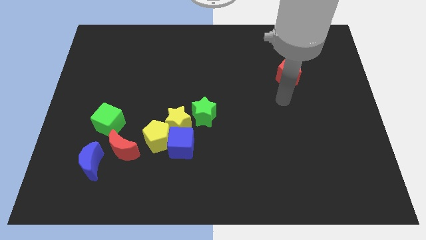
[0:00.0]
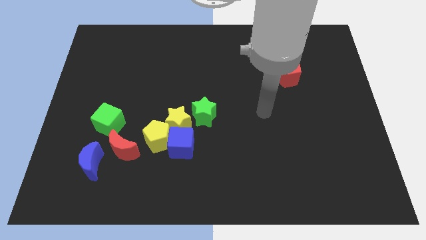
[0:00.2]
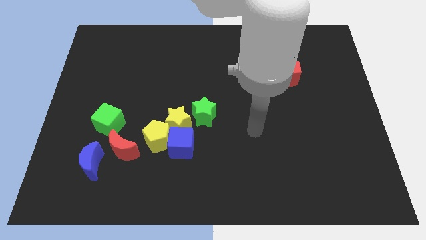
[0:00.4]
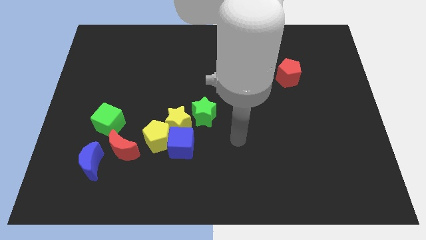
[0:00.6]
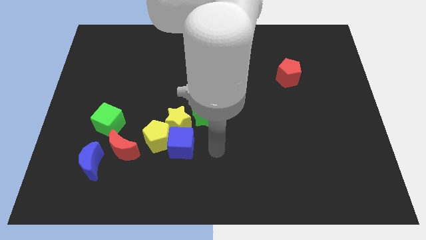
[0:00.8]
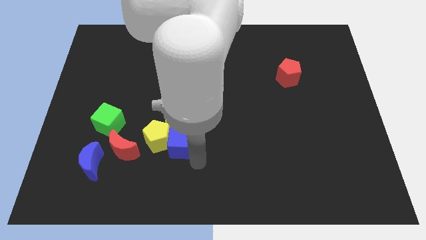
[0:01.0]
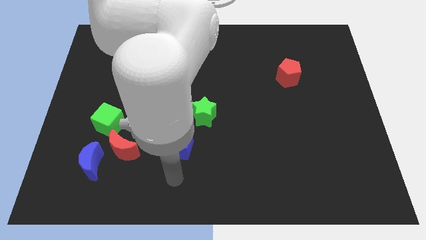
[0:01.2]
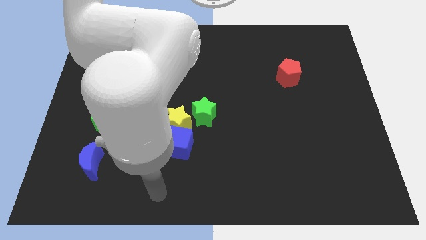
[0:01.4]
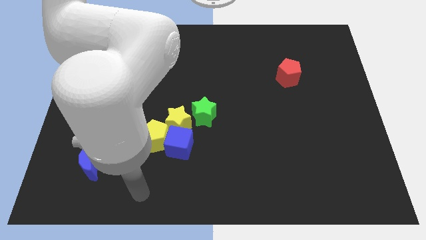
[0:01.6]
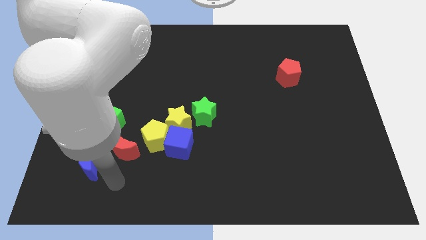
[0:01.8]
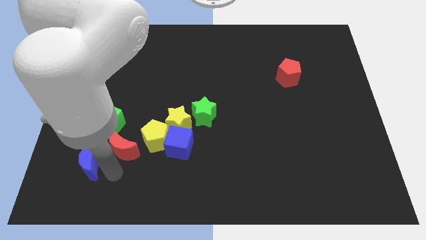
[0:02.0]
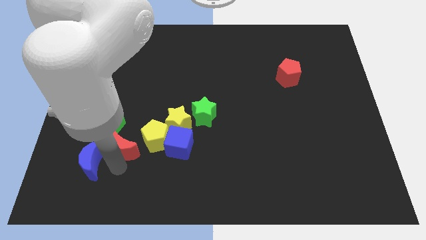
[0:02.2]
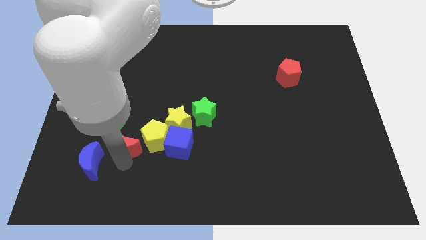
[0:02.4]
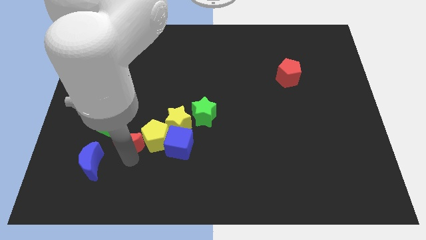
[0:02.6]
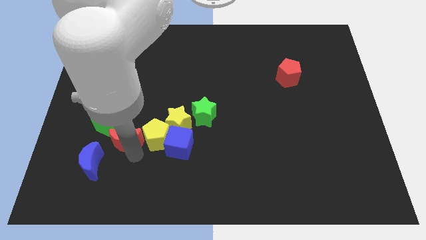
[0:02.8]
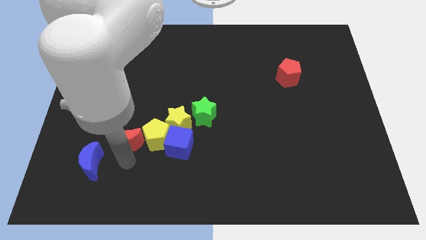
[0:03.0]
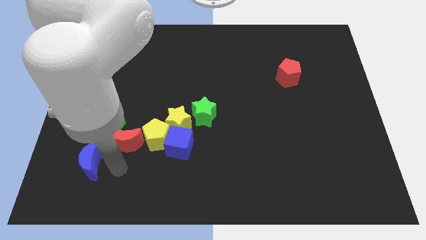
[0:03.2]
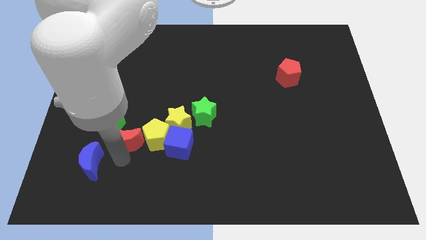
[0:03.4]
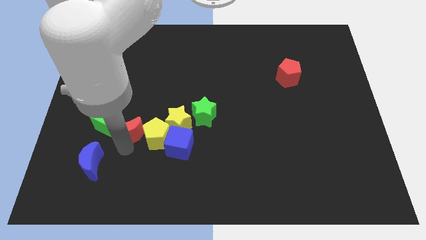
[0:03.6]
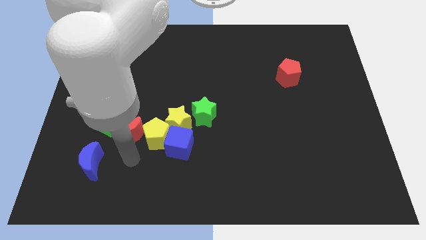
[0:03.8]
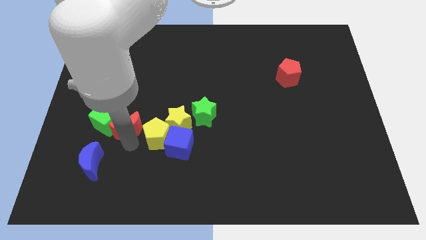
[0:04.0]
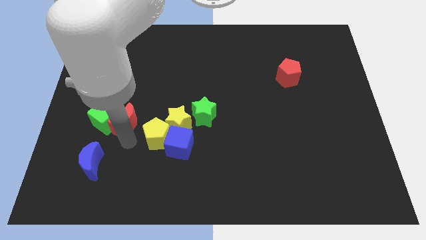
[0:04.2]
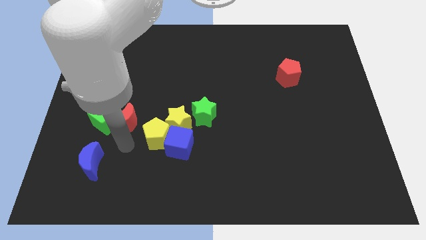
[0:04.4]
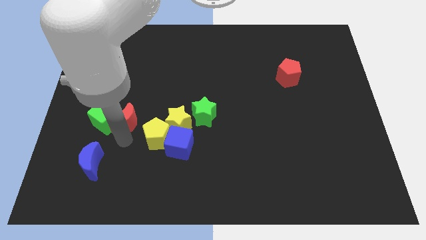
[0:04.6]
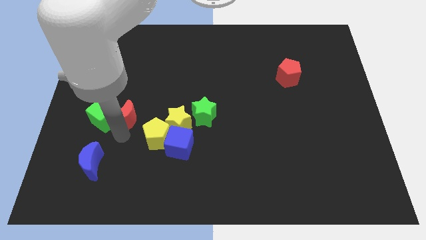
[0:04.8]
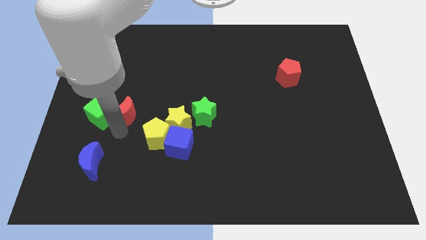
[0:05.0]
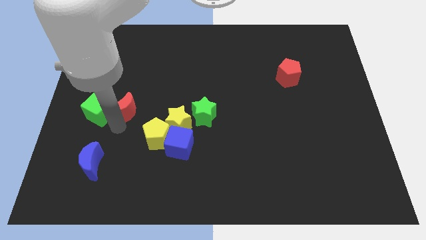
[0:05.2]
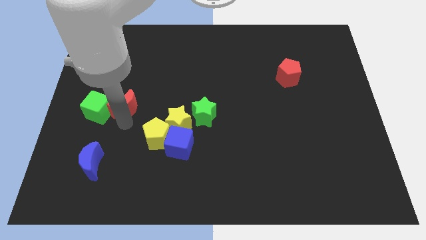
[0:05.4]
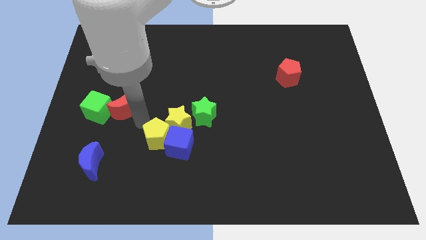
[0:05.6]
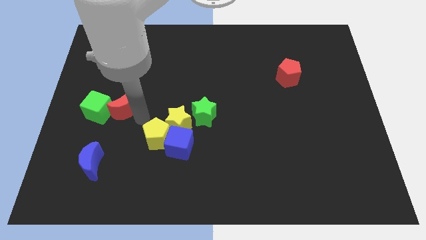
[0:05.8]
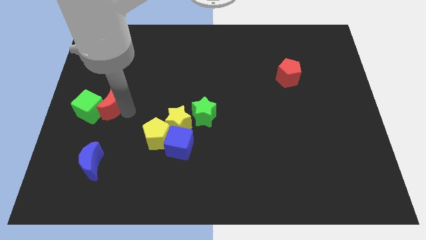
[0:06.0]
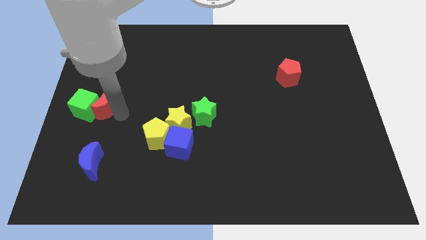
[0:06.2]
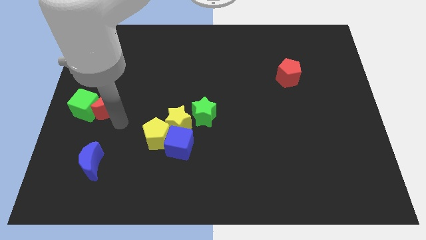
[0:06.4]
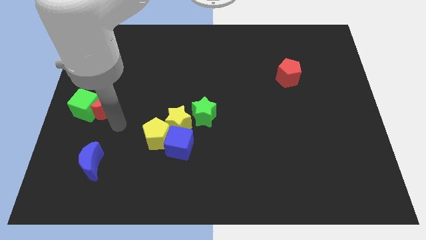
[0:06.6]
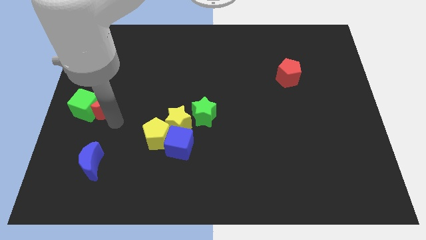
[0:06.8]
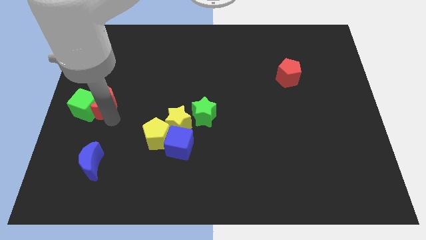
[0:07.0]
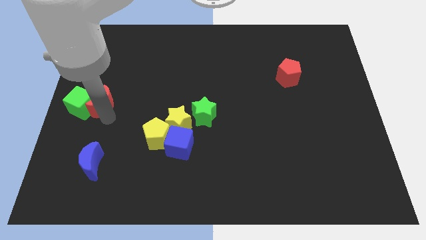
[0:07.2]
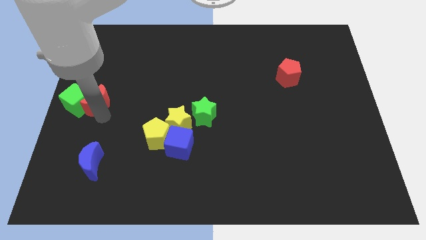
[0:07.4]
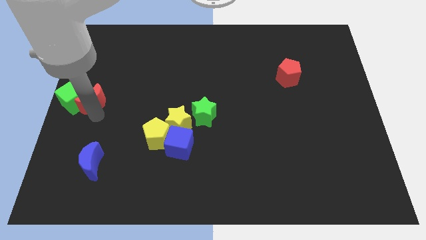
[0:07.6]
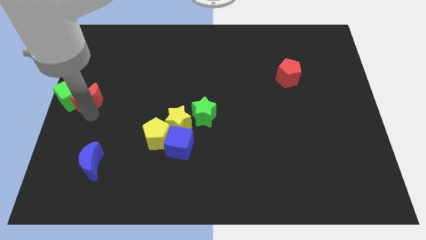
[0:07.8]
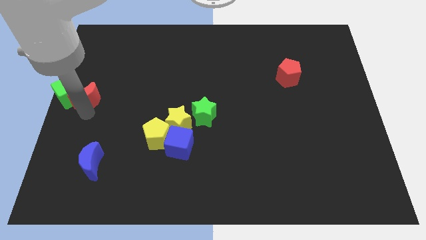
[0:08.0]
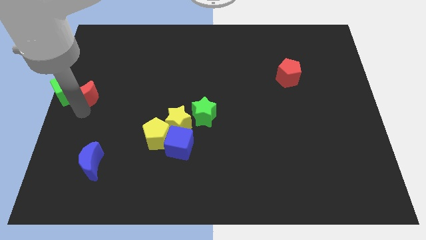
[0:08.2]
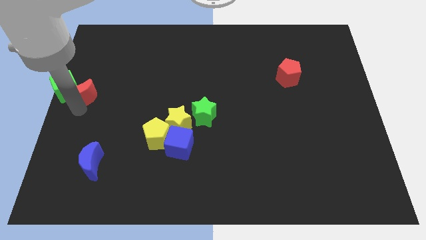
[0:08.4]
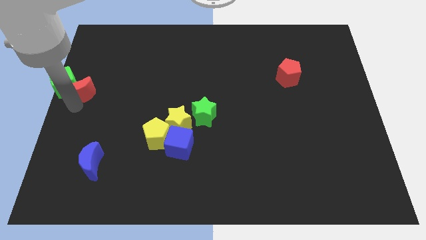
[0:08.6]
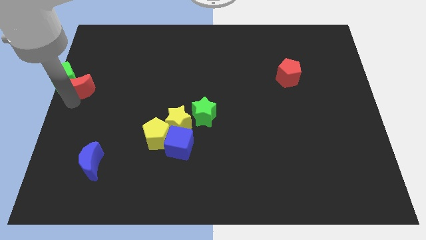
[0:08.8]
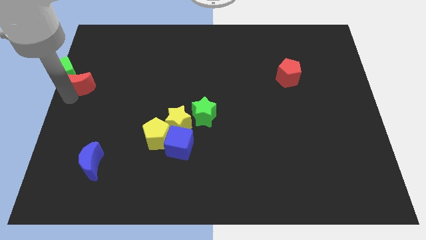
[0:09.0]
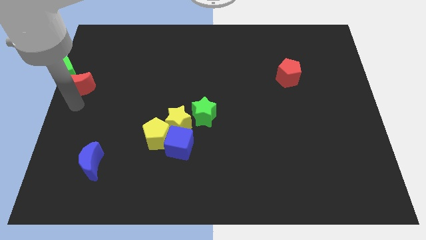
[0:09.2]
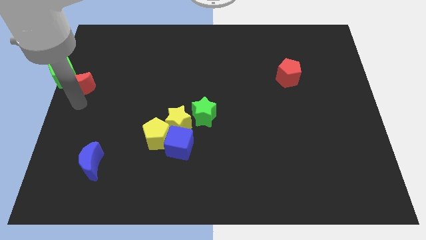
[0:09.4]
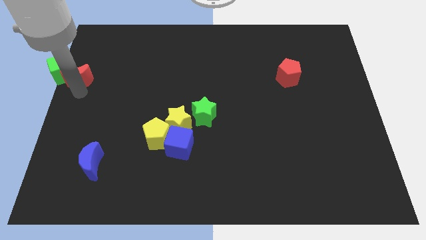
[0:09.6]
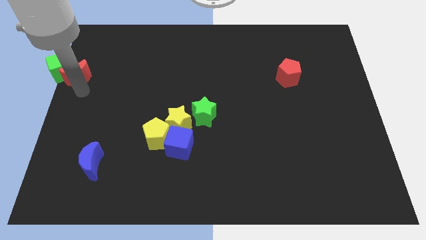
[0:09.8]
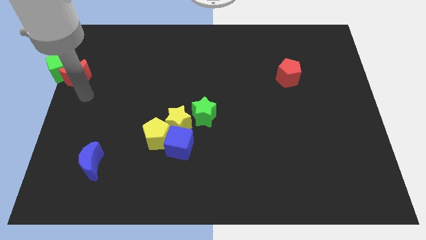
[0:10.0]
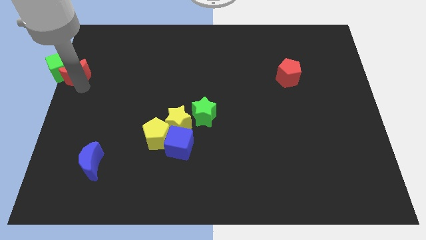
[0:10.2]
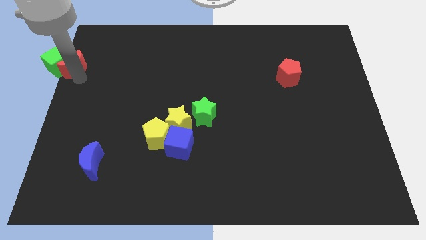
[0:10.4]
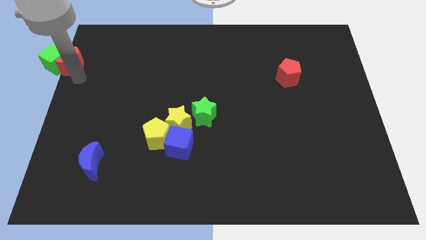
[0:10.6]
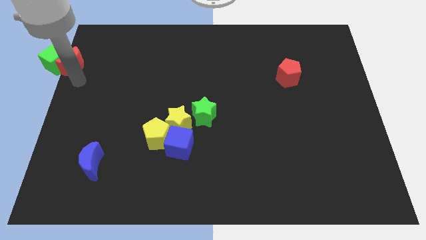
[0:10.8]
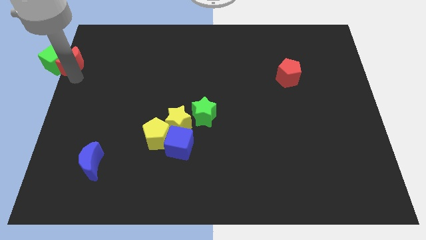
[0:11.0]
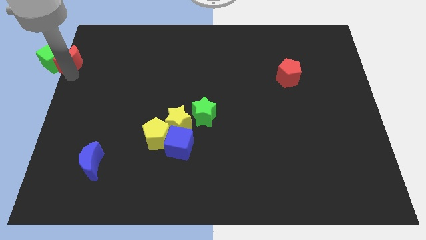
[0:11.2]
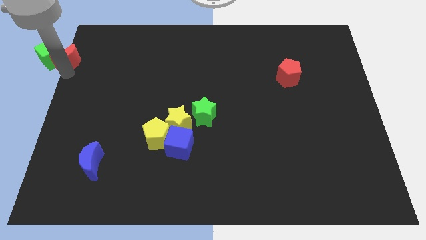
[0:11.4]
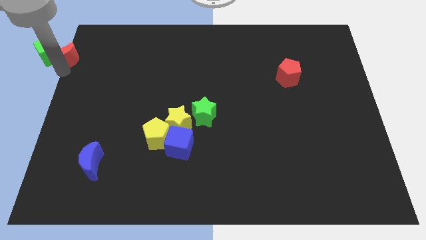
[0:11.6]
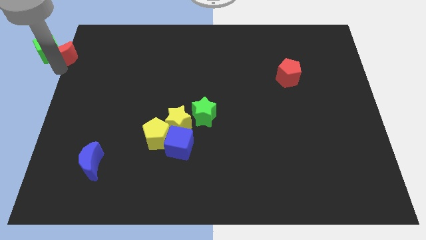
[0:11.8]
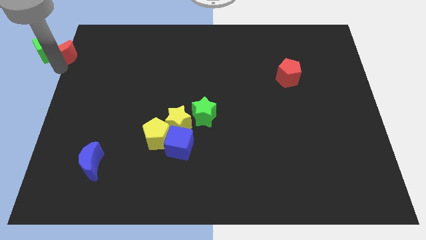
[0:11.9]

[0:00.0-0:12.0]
put the red moon to the top left corner

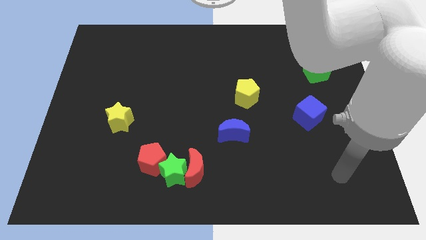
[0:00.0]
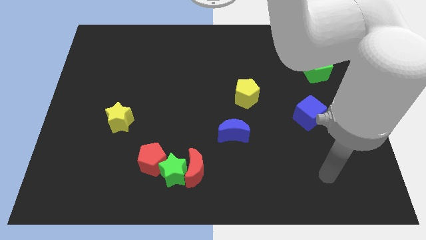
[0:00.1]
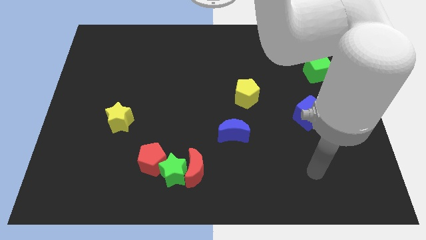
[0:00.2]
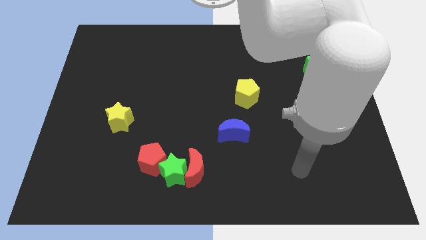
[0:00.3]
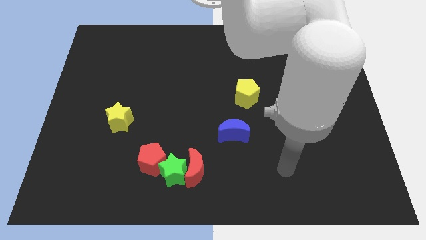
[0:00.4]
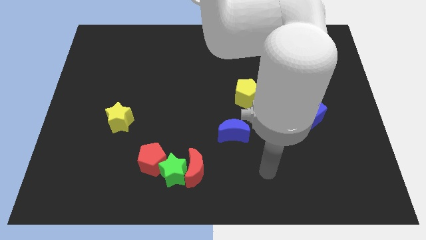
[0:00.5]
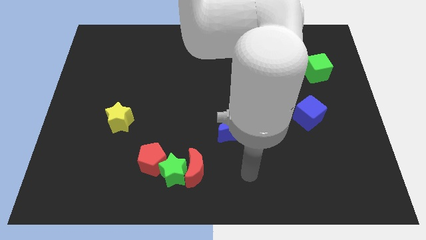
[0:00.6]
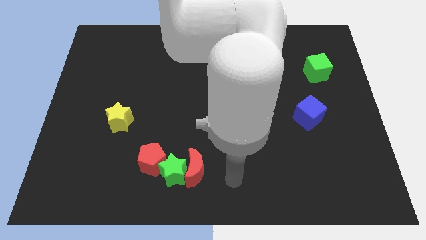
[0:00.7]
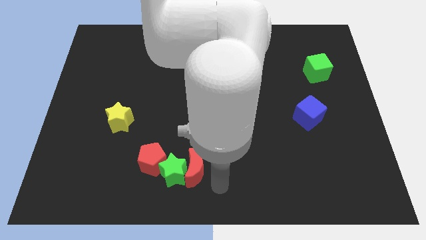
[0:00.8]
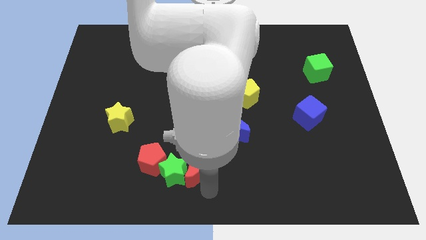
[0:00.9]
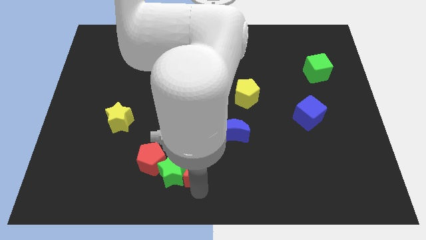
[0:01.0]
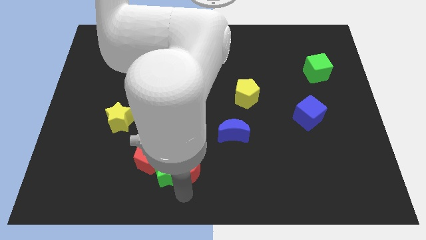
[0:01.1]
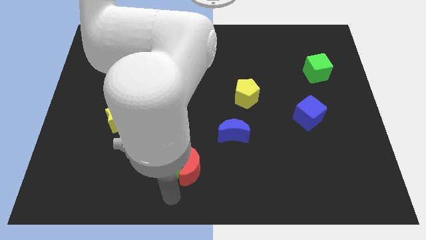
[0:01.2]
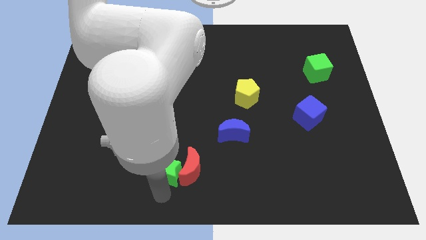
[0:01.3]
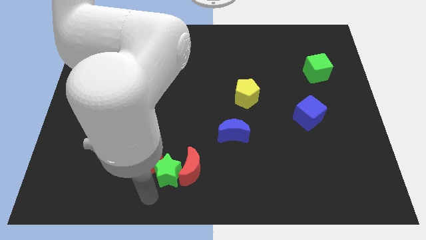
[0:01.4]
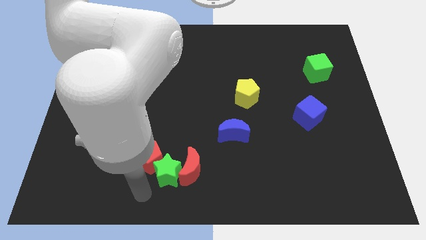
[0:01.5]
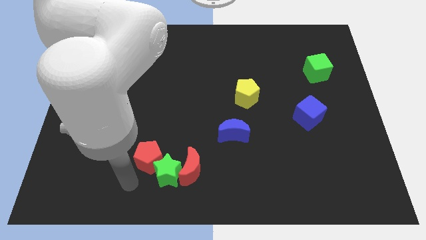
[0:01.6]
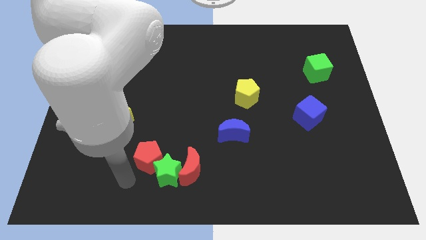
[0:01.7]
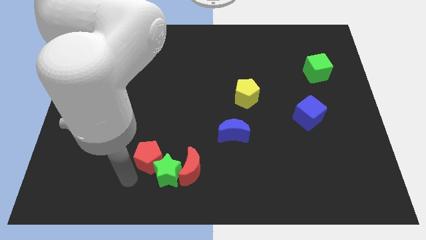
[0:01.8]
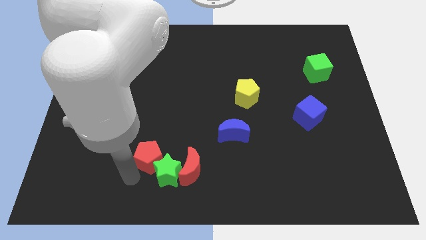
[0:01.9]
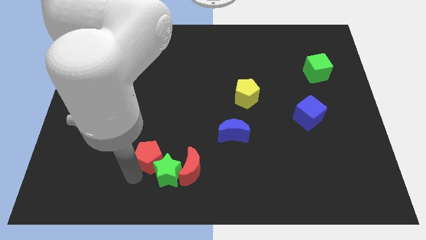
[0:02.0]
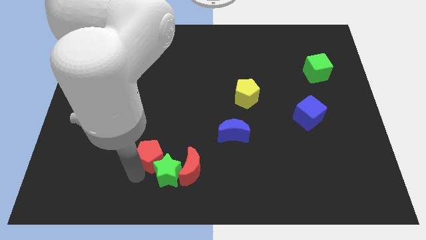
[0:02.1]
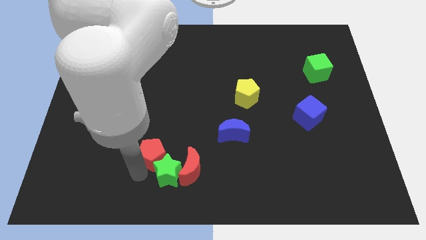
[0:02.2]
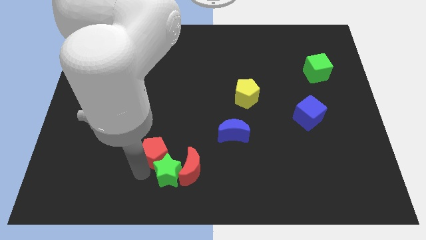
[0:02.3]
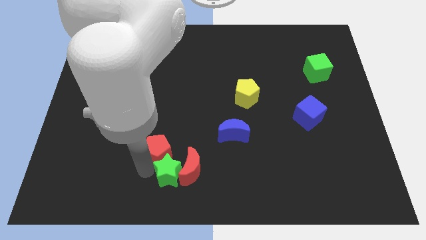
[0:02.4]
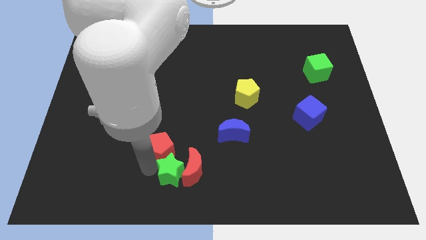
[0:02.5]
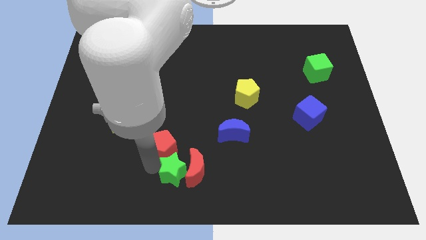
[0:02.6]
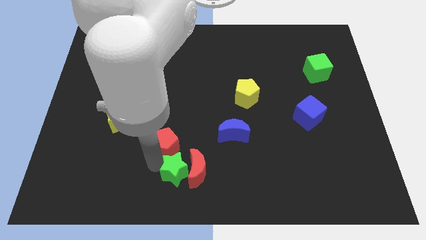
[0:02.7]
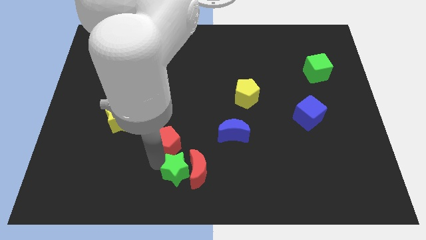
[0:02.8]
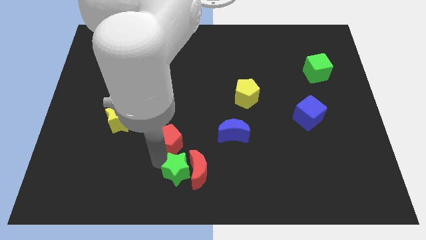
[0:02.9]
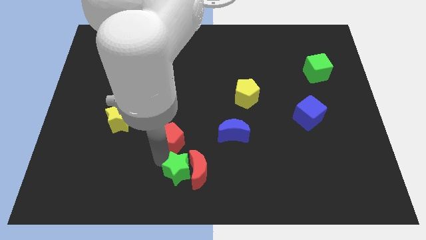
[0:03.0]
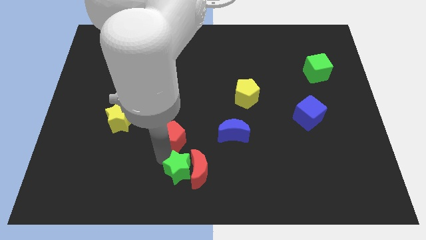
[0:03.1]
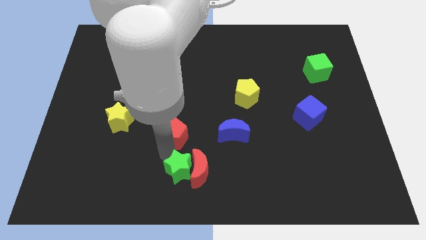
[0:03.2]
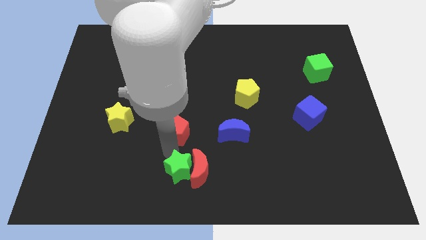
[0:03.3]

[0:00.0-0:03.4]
slide the red pentagon to the center of the board
